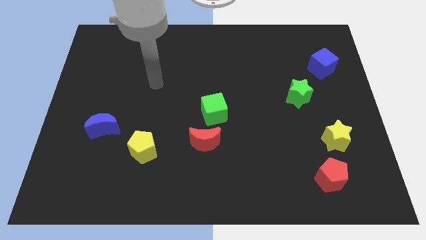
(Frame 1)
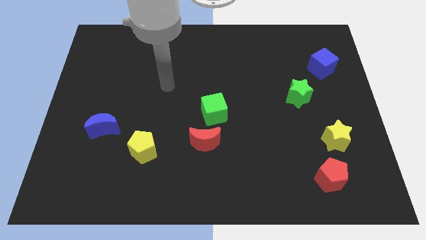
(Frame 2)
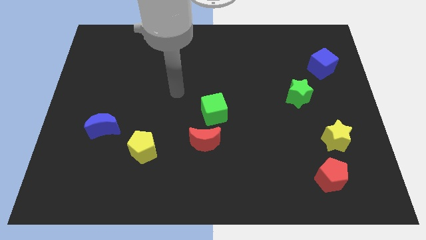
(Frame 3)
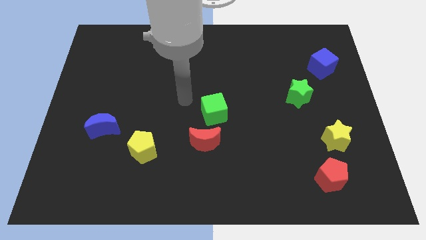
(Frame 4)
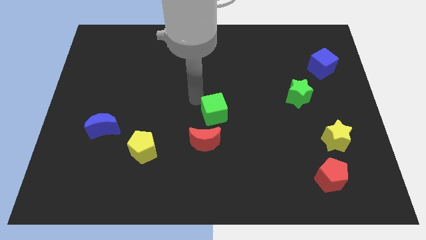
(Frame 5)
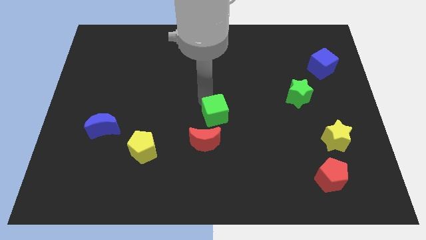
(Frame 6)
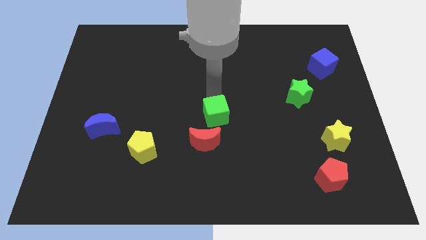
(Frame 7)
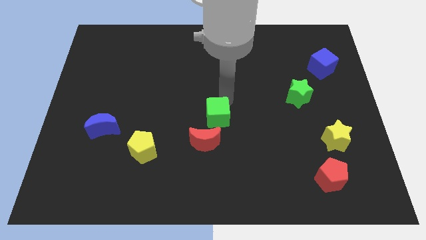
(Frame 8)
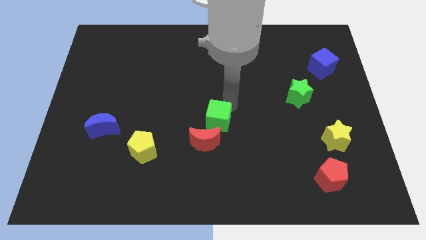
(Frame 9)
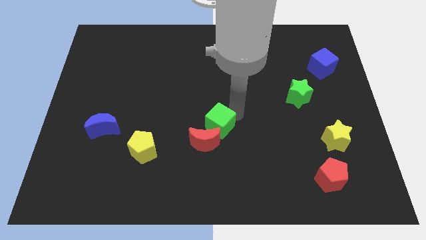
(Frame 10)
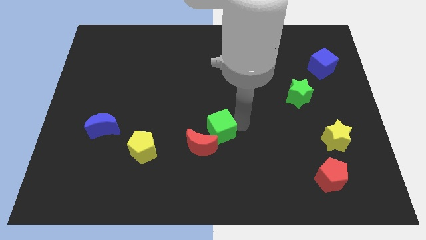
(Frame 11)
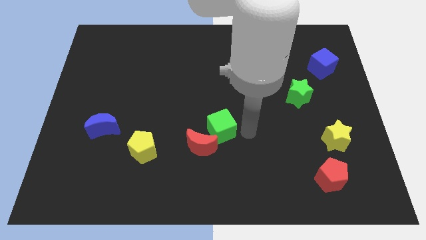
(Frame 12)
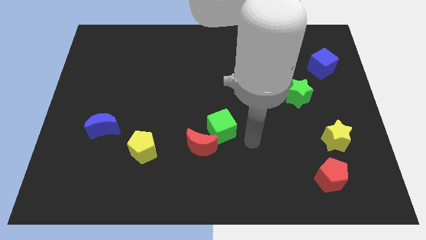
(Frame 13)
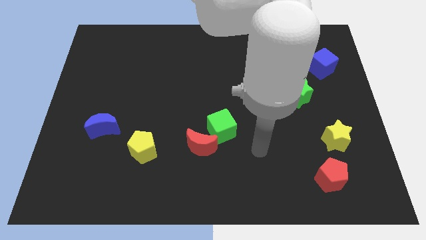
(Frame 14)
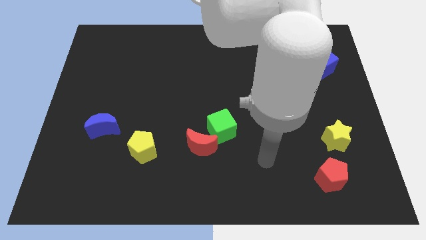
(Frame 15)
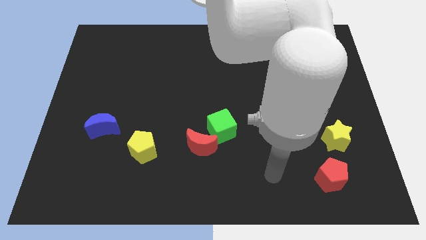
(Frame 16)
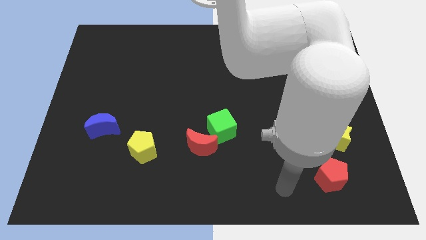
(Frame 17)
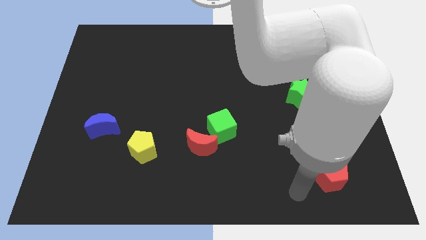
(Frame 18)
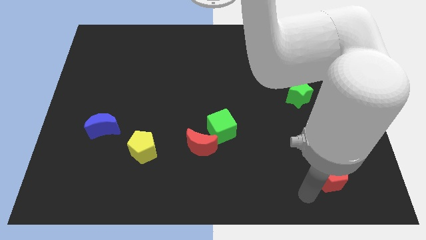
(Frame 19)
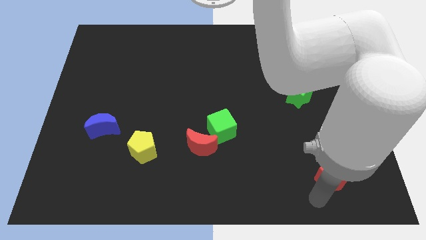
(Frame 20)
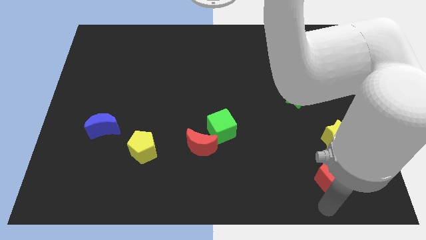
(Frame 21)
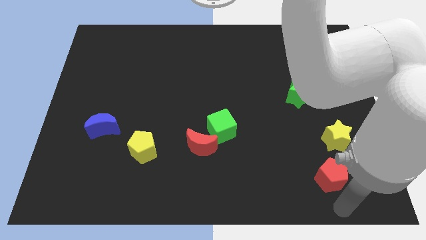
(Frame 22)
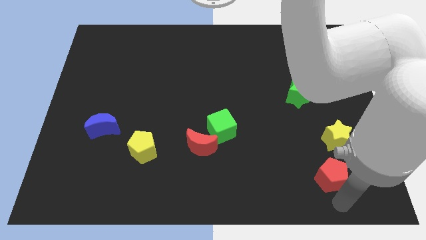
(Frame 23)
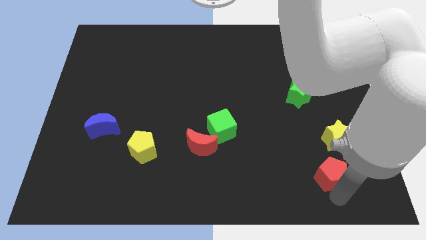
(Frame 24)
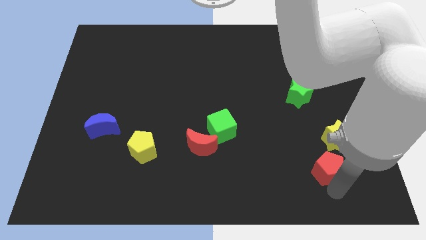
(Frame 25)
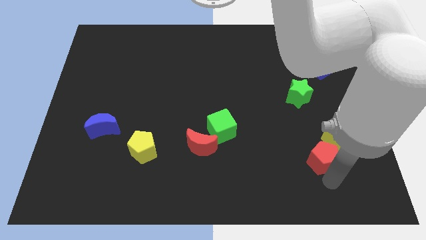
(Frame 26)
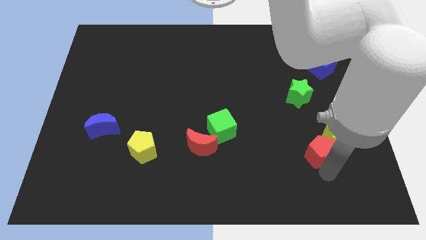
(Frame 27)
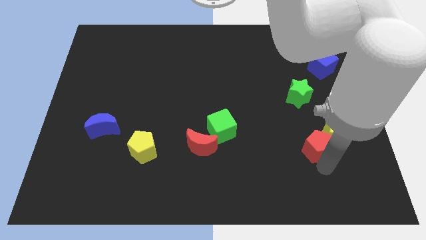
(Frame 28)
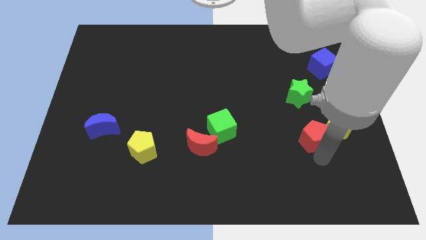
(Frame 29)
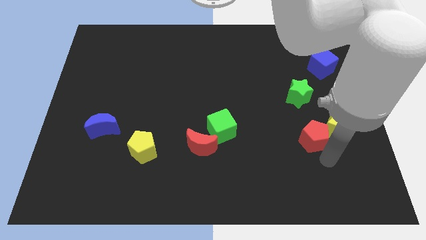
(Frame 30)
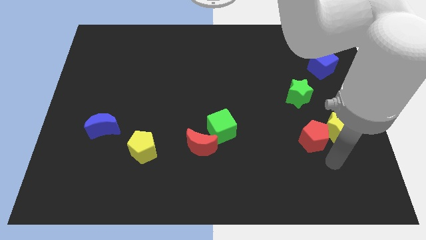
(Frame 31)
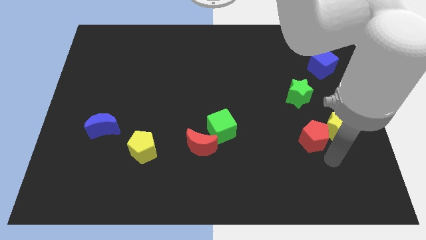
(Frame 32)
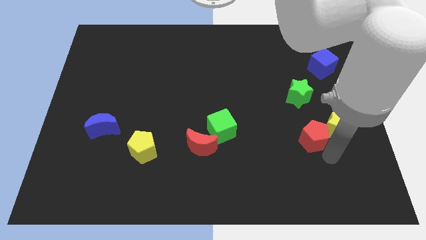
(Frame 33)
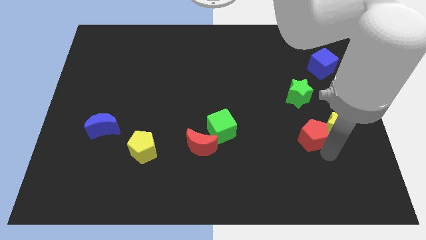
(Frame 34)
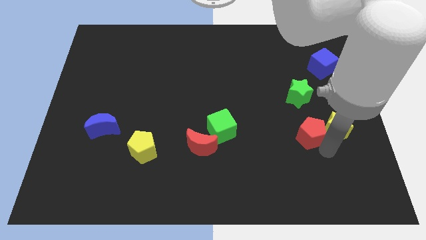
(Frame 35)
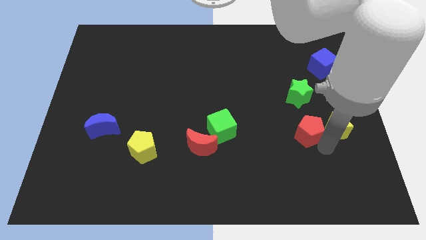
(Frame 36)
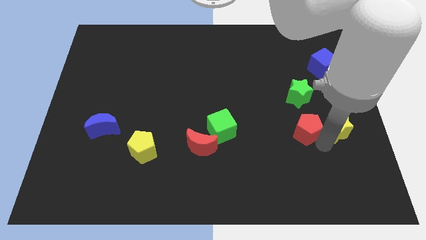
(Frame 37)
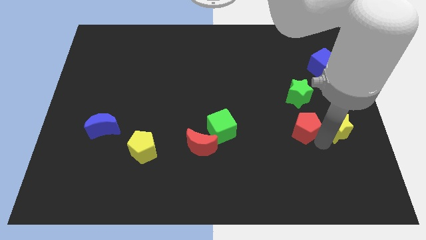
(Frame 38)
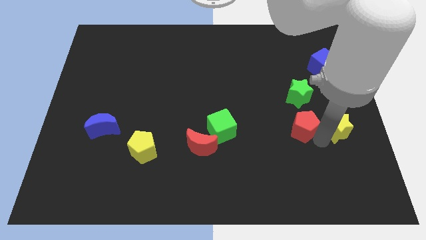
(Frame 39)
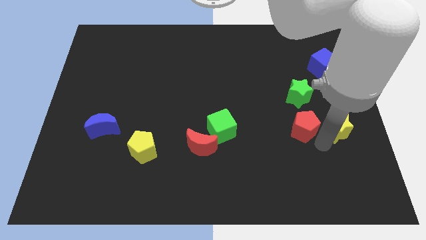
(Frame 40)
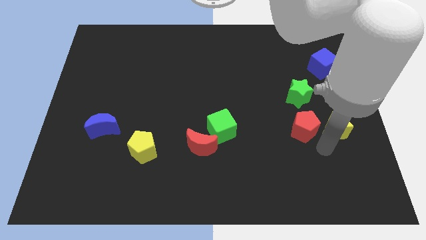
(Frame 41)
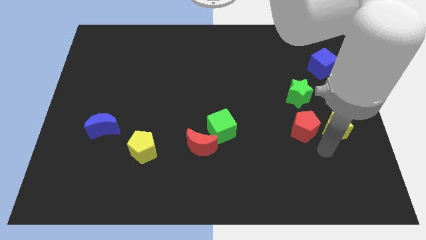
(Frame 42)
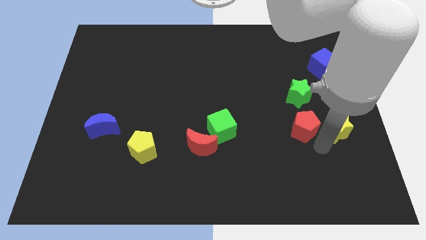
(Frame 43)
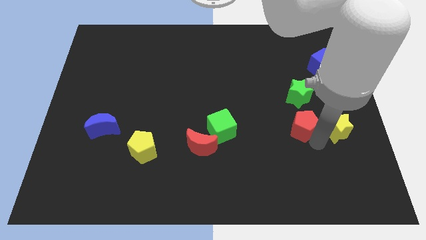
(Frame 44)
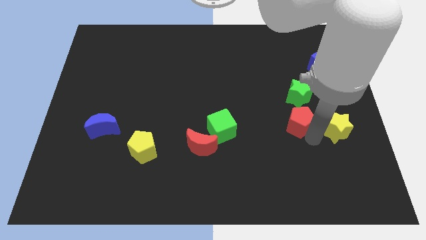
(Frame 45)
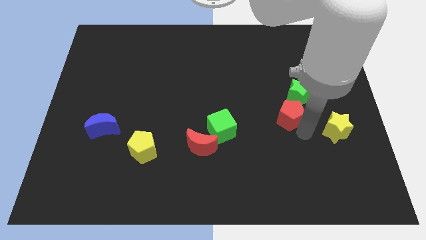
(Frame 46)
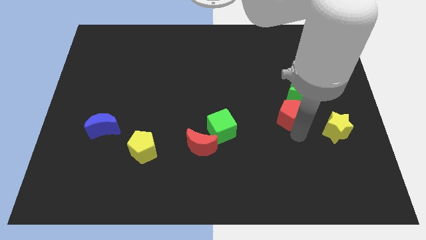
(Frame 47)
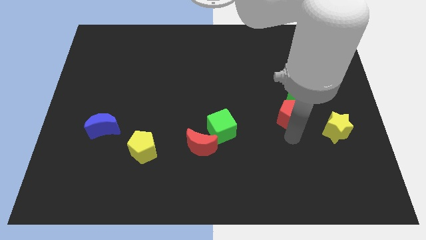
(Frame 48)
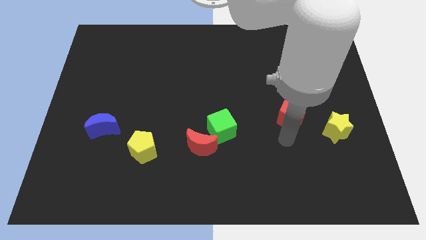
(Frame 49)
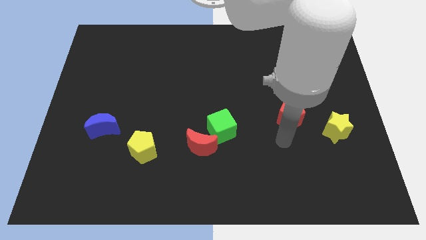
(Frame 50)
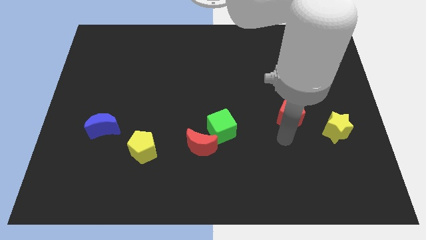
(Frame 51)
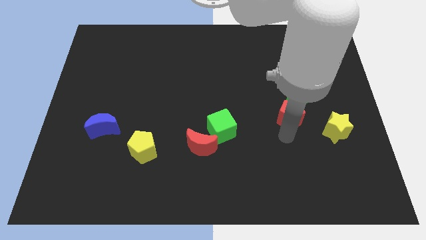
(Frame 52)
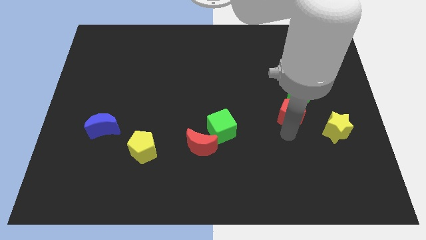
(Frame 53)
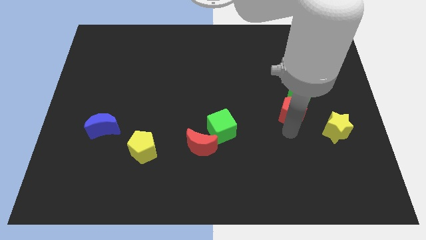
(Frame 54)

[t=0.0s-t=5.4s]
put the red pentagon towards the green star

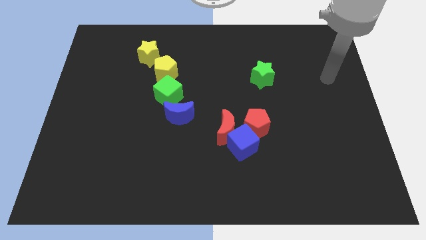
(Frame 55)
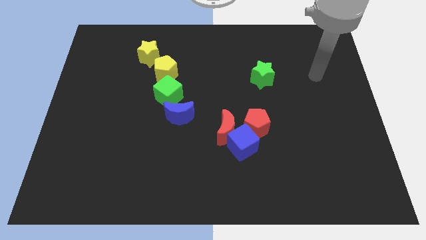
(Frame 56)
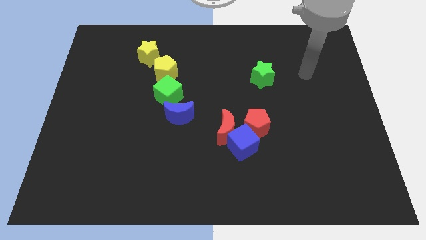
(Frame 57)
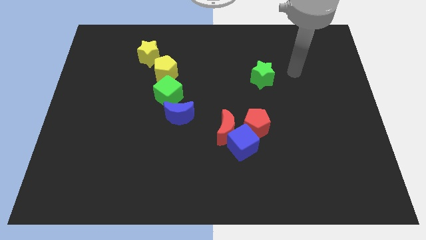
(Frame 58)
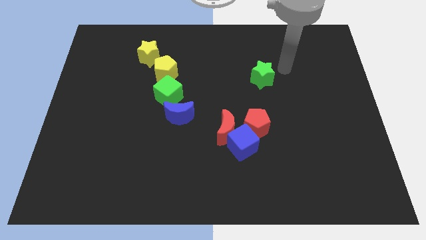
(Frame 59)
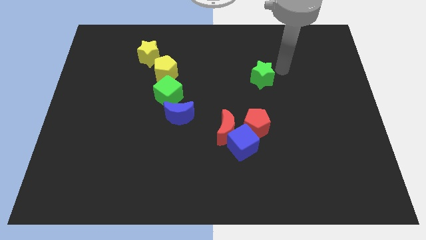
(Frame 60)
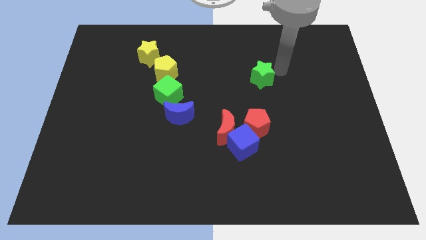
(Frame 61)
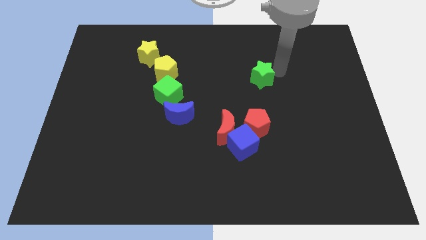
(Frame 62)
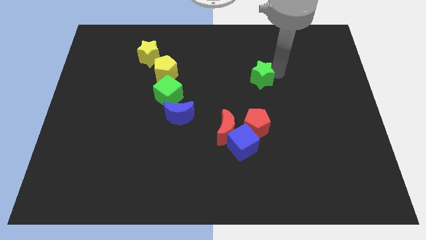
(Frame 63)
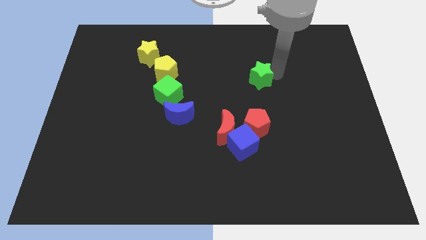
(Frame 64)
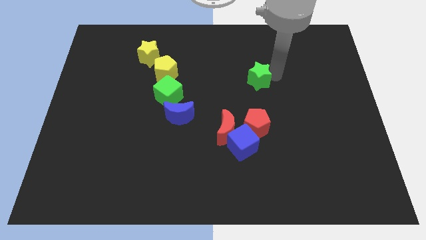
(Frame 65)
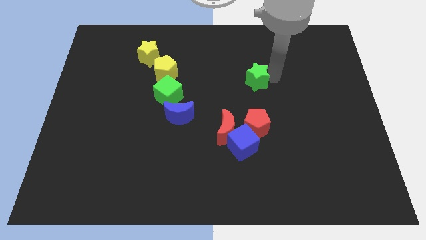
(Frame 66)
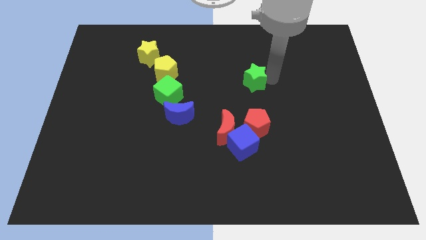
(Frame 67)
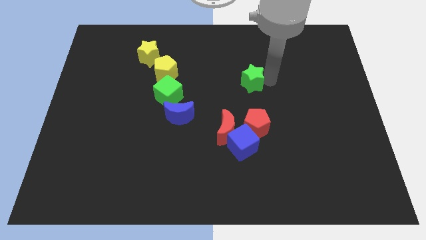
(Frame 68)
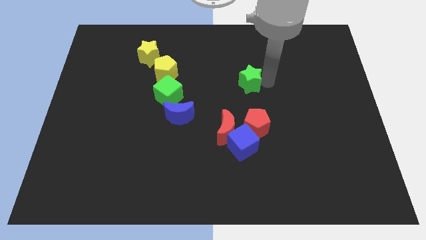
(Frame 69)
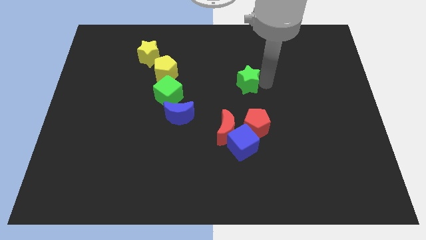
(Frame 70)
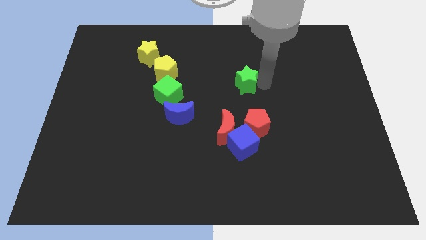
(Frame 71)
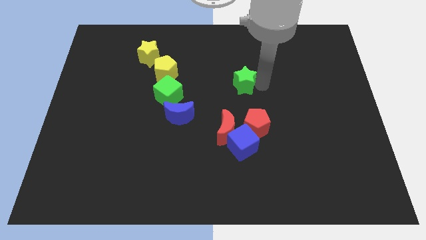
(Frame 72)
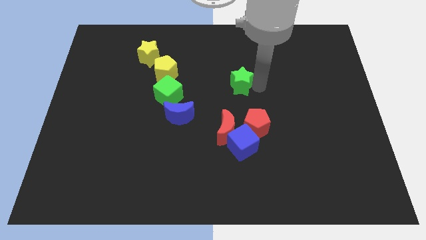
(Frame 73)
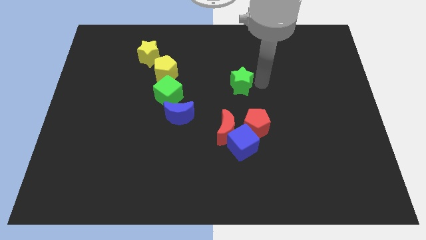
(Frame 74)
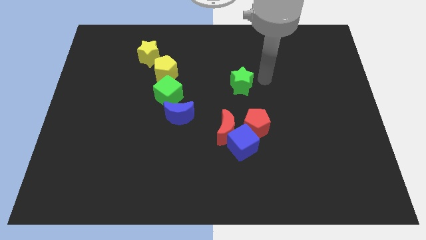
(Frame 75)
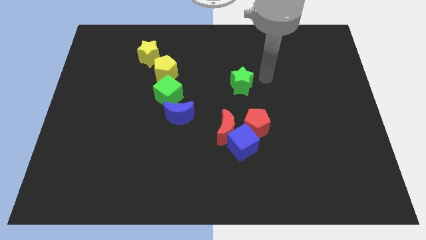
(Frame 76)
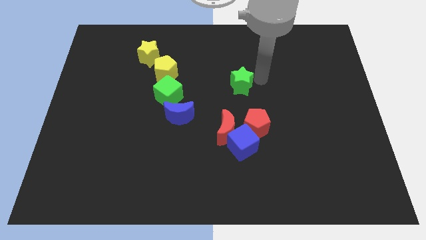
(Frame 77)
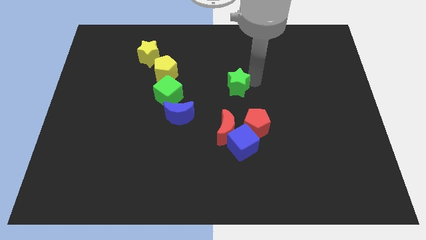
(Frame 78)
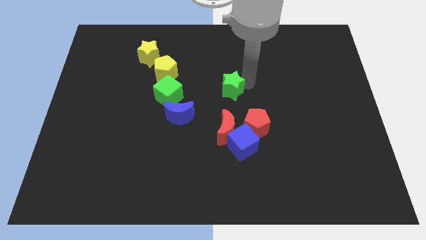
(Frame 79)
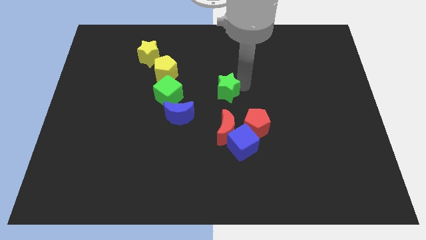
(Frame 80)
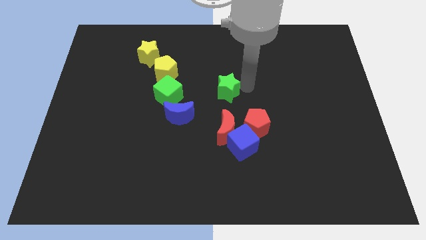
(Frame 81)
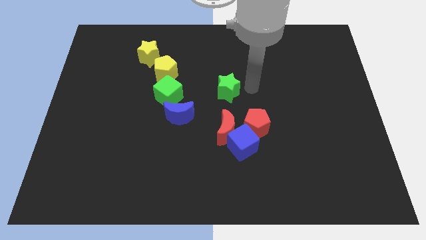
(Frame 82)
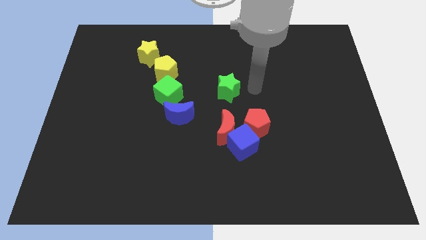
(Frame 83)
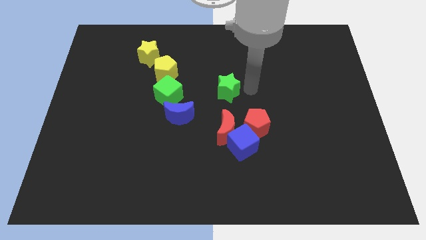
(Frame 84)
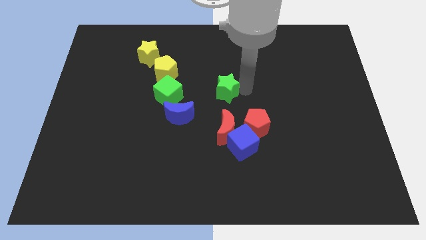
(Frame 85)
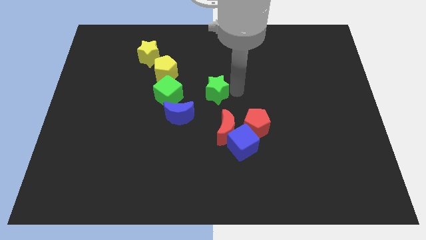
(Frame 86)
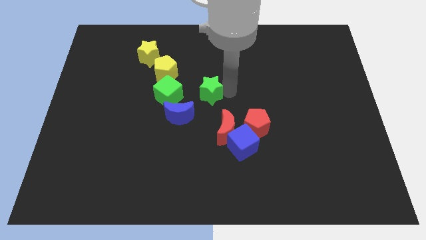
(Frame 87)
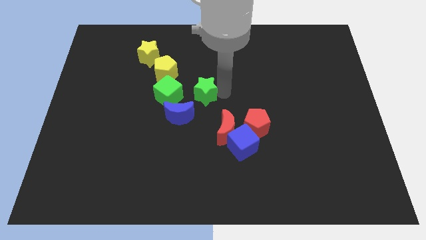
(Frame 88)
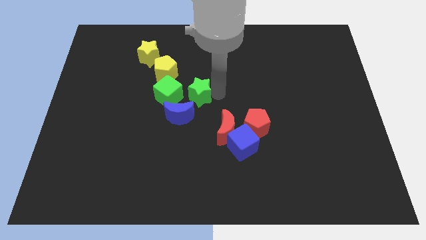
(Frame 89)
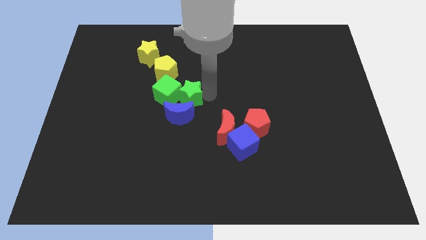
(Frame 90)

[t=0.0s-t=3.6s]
move the green star next to the green cube
